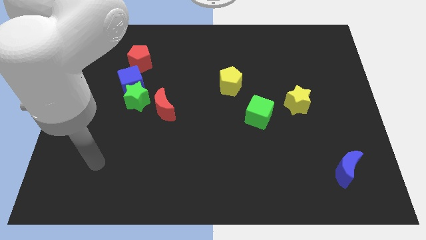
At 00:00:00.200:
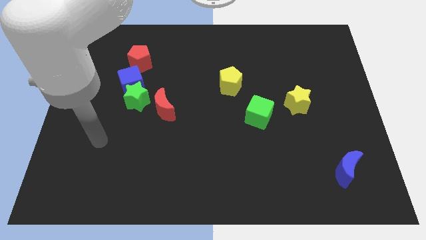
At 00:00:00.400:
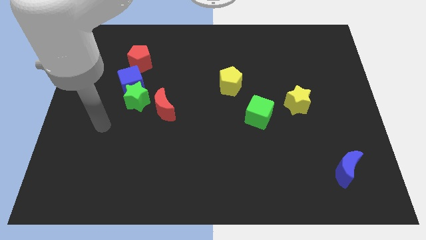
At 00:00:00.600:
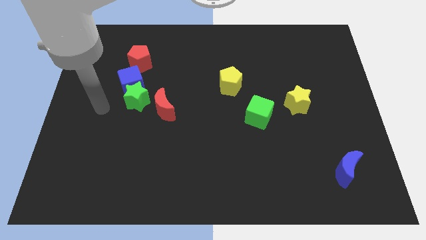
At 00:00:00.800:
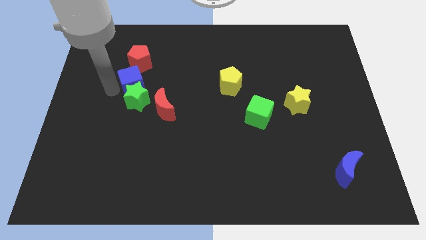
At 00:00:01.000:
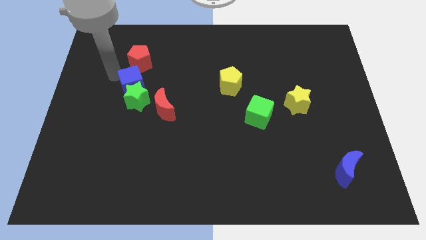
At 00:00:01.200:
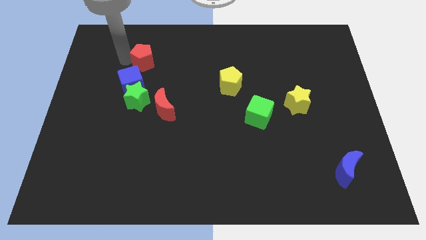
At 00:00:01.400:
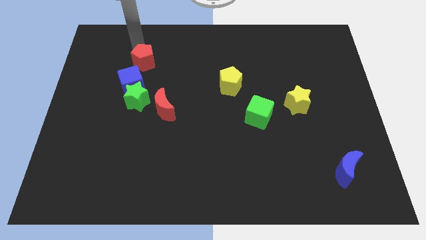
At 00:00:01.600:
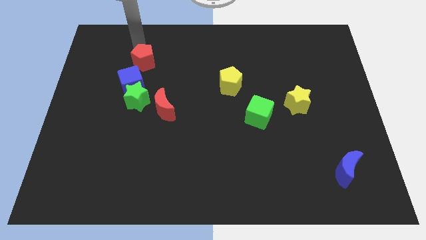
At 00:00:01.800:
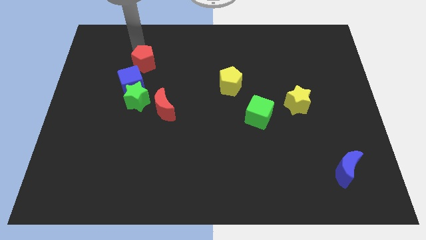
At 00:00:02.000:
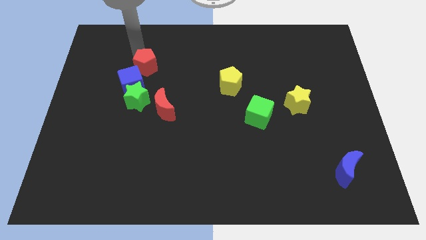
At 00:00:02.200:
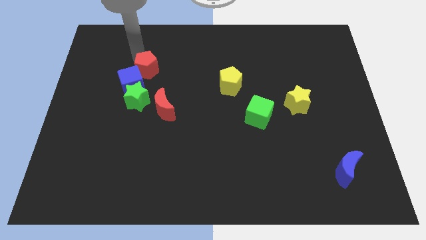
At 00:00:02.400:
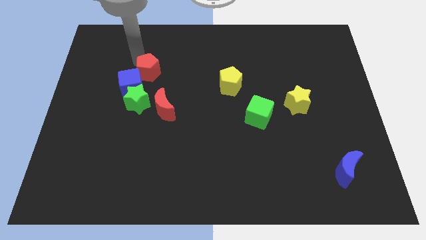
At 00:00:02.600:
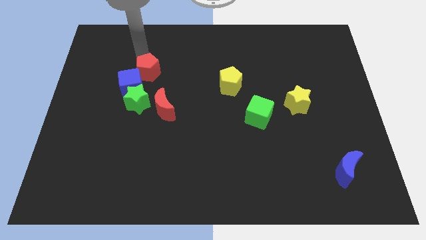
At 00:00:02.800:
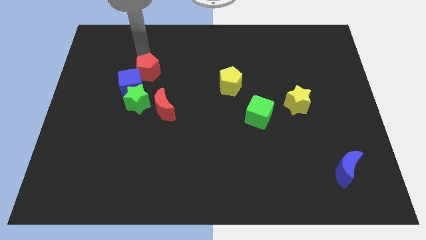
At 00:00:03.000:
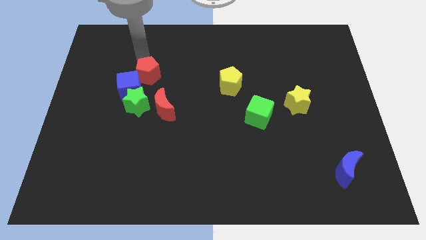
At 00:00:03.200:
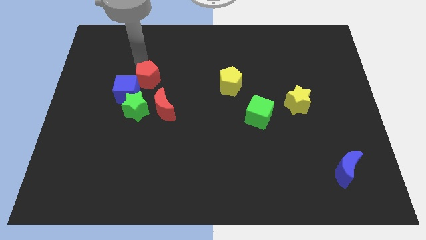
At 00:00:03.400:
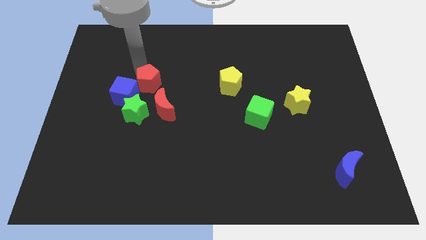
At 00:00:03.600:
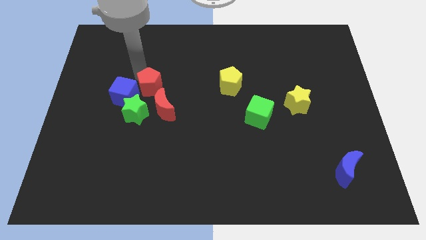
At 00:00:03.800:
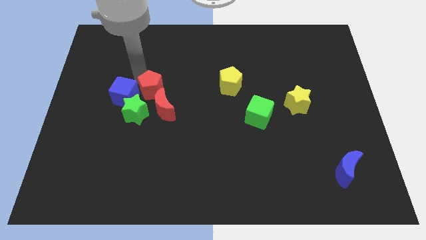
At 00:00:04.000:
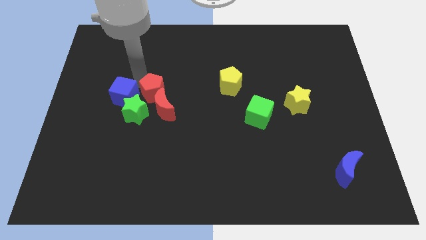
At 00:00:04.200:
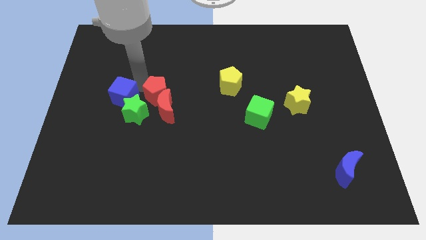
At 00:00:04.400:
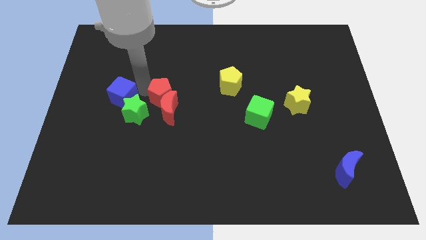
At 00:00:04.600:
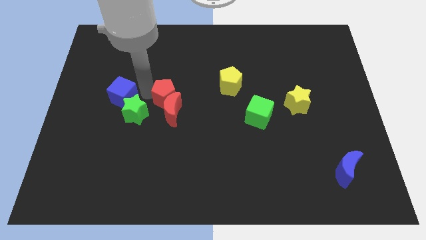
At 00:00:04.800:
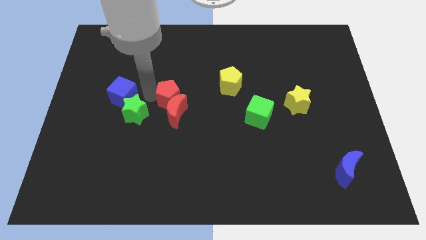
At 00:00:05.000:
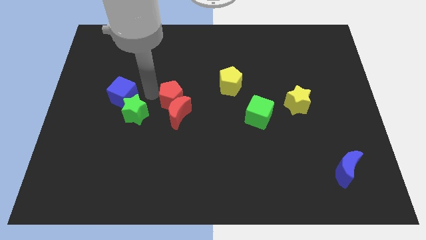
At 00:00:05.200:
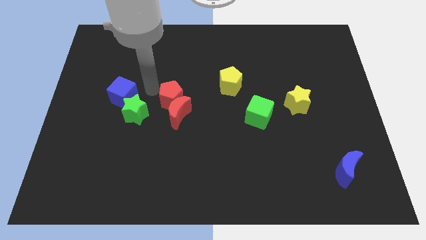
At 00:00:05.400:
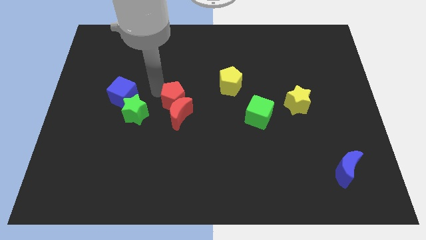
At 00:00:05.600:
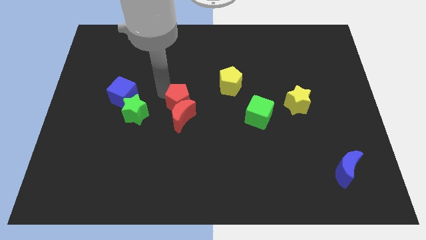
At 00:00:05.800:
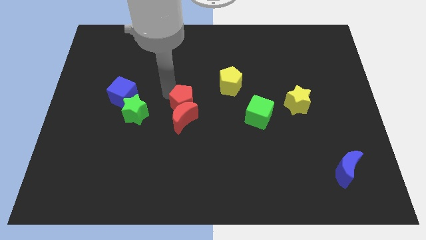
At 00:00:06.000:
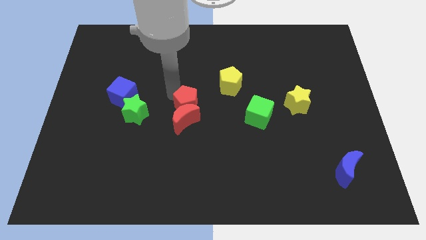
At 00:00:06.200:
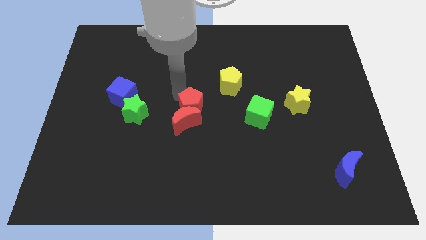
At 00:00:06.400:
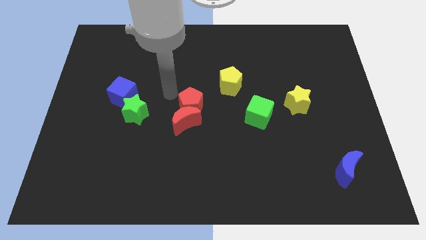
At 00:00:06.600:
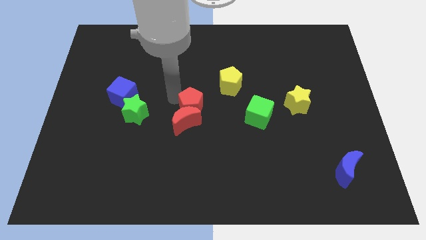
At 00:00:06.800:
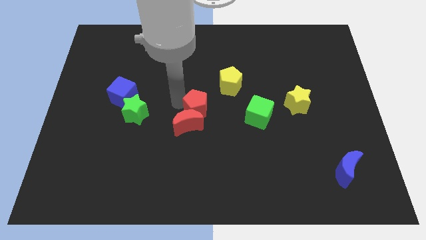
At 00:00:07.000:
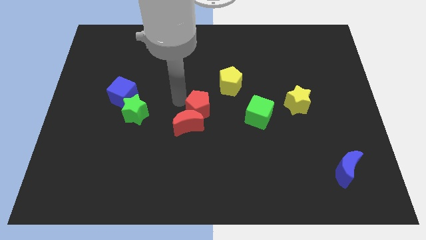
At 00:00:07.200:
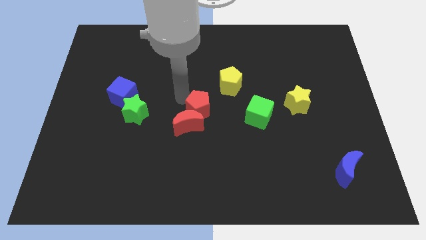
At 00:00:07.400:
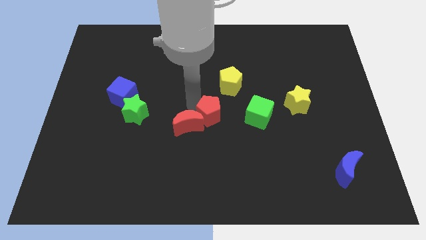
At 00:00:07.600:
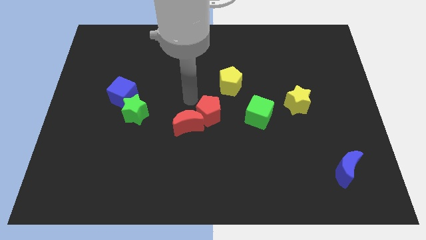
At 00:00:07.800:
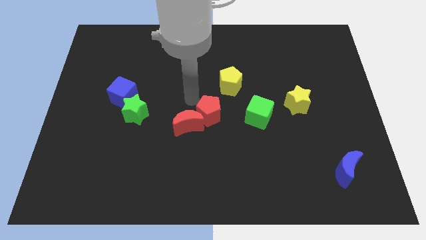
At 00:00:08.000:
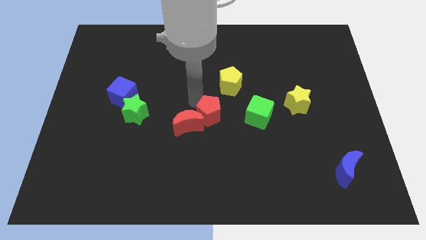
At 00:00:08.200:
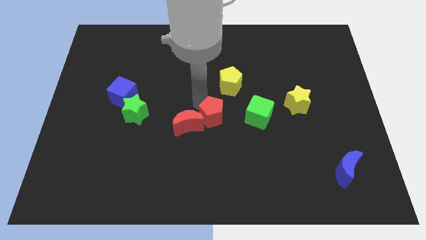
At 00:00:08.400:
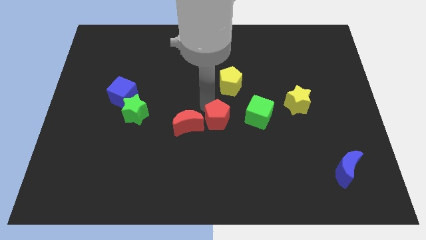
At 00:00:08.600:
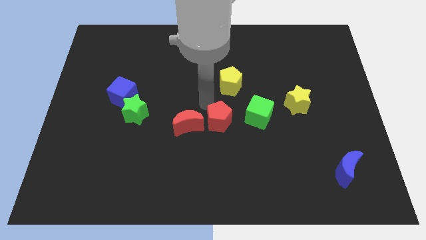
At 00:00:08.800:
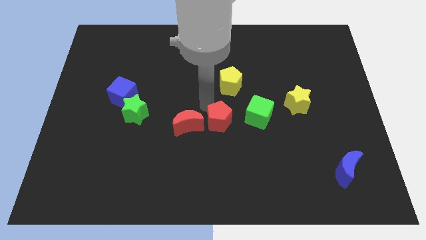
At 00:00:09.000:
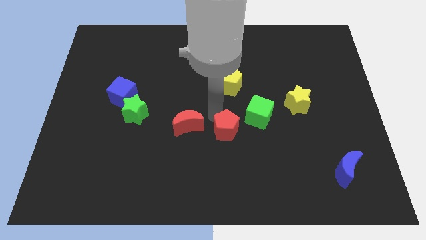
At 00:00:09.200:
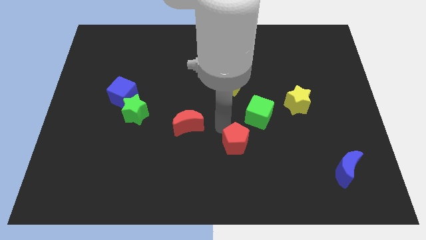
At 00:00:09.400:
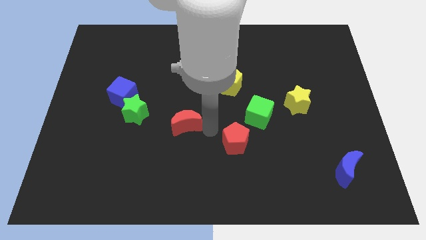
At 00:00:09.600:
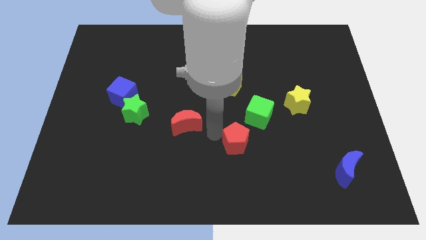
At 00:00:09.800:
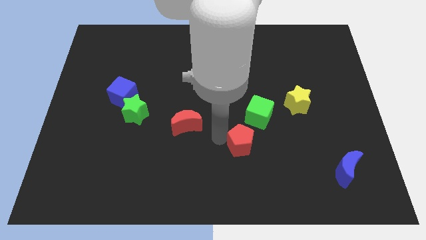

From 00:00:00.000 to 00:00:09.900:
slide the red pentagon to the bottom side of the green cube

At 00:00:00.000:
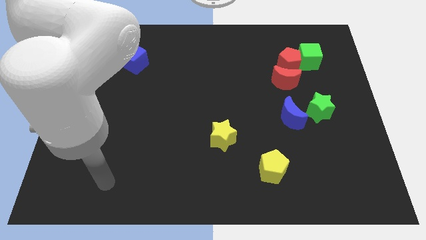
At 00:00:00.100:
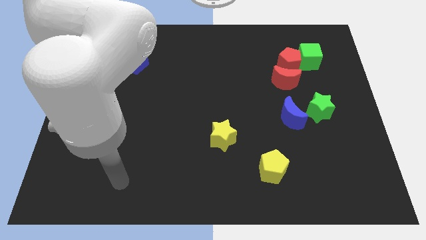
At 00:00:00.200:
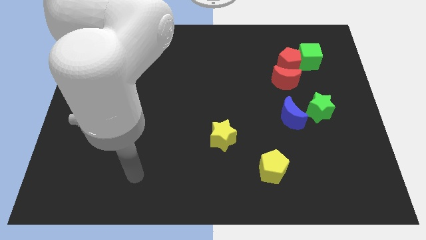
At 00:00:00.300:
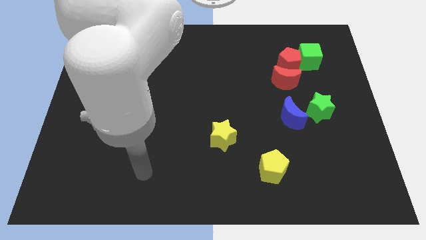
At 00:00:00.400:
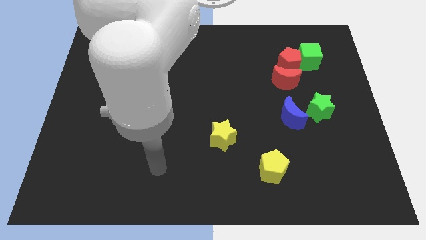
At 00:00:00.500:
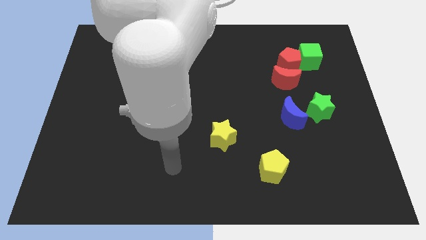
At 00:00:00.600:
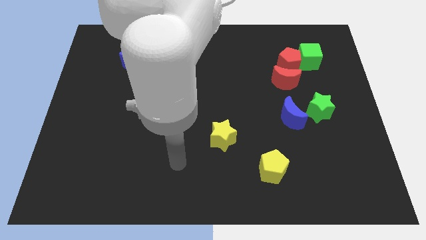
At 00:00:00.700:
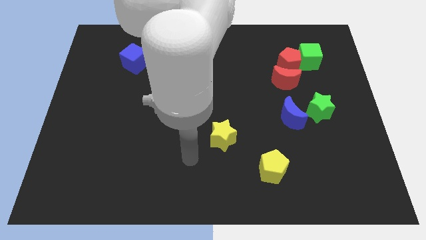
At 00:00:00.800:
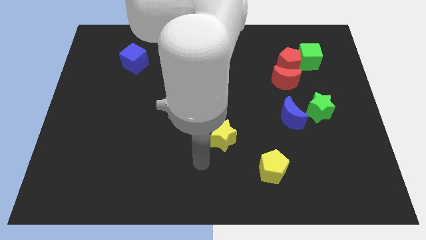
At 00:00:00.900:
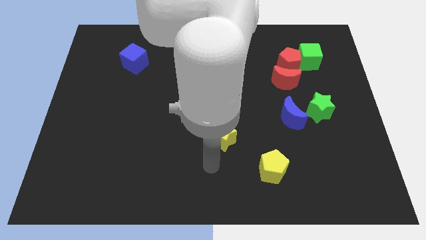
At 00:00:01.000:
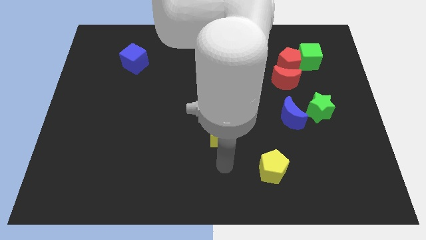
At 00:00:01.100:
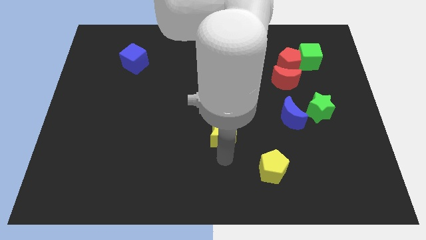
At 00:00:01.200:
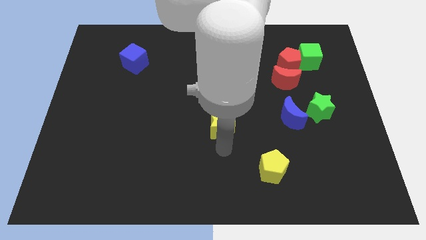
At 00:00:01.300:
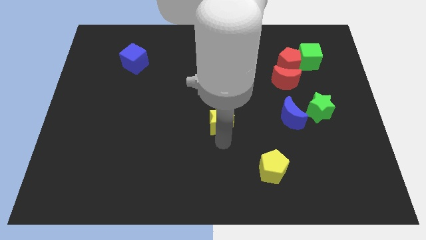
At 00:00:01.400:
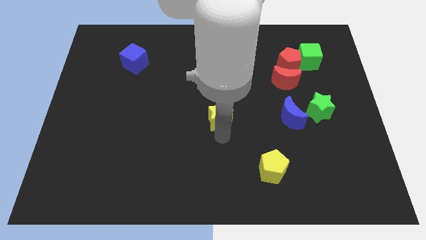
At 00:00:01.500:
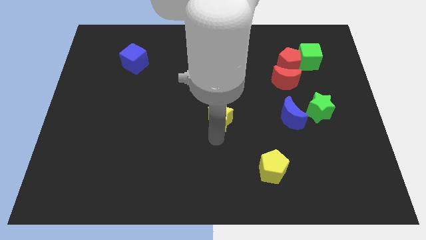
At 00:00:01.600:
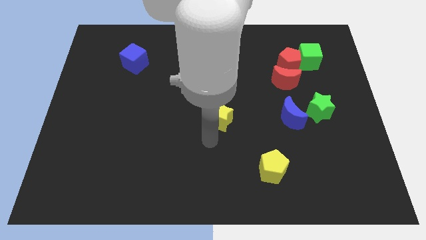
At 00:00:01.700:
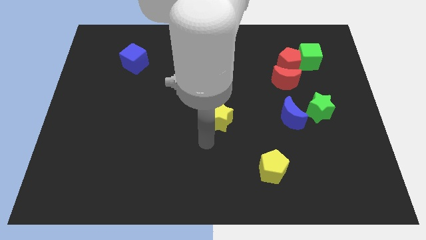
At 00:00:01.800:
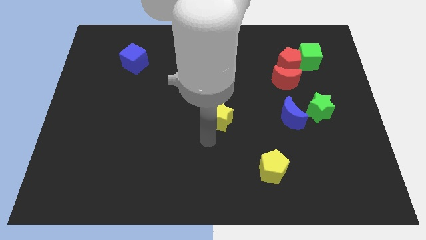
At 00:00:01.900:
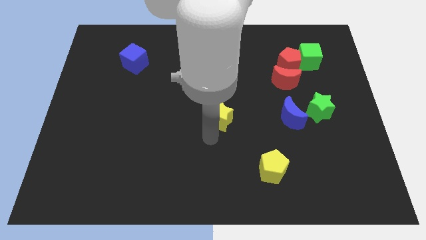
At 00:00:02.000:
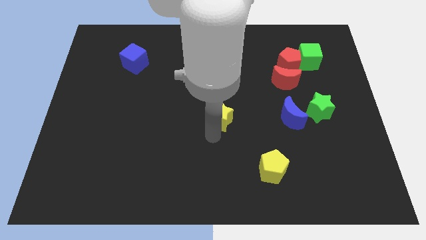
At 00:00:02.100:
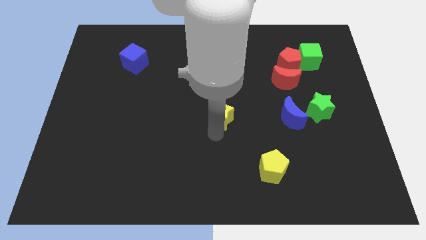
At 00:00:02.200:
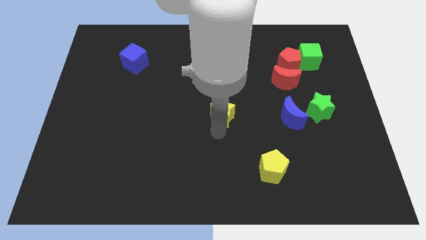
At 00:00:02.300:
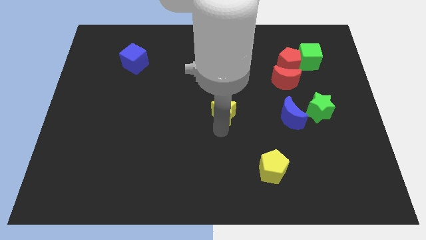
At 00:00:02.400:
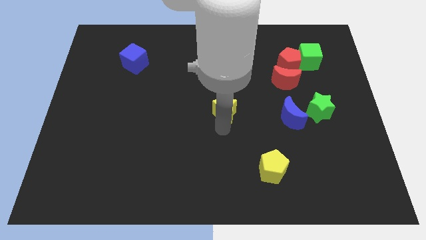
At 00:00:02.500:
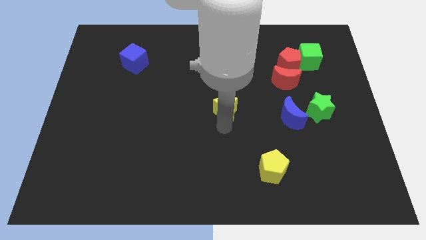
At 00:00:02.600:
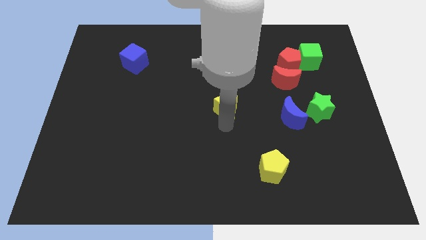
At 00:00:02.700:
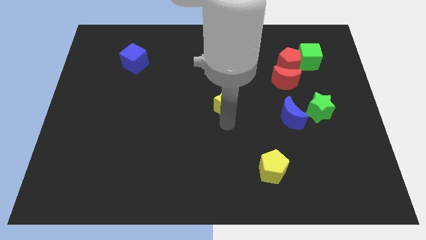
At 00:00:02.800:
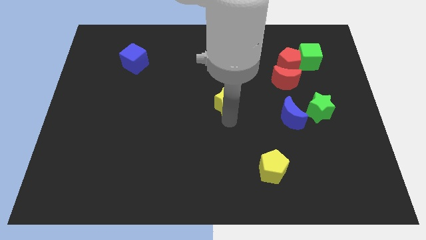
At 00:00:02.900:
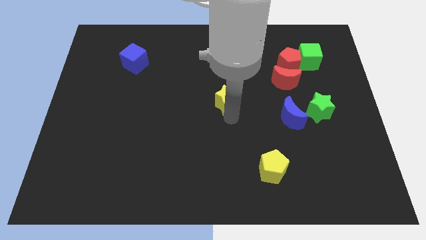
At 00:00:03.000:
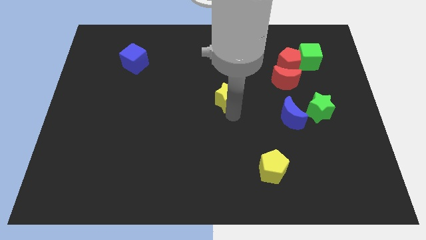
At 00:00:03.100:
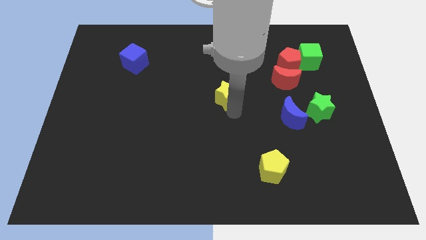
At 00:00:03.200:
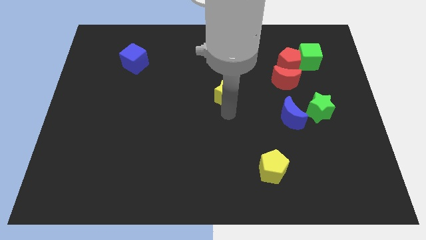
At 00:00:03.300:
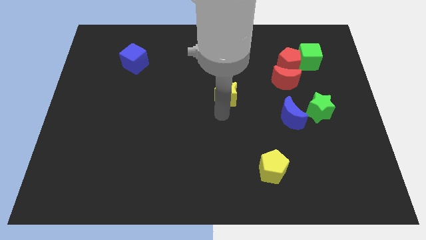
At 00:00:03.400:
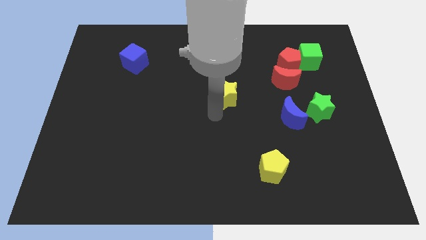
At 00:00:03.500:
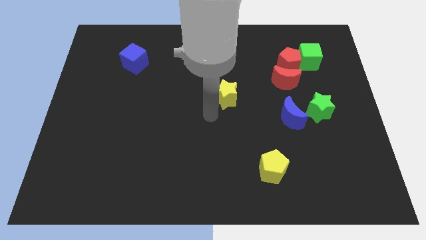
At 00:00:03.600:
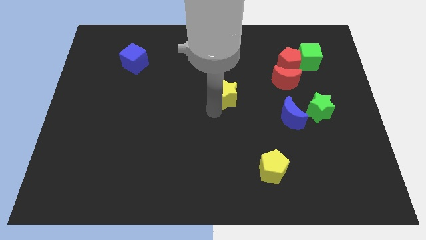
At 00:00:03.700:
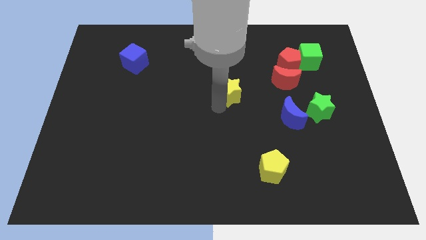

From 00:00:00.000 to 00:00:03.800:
move the yellow star just left of the red moon
